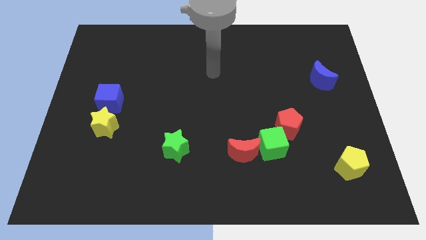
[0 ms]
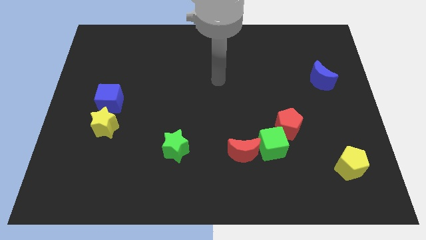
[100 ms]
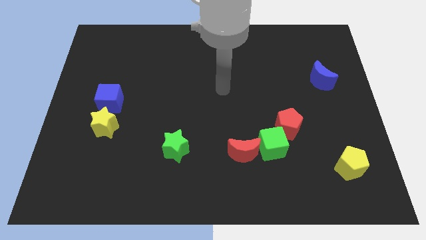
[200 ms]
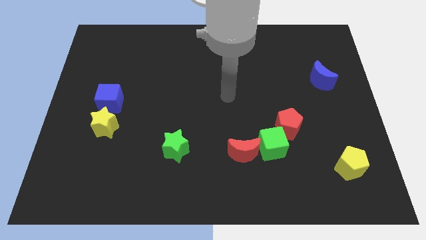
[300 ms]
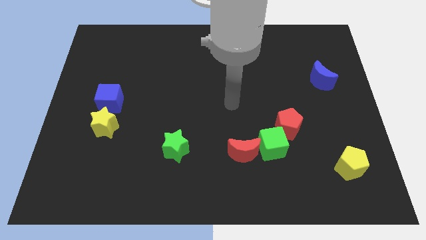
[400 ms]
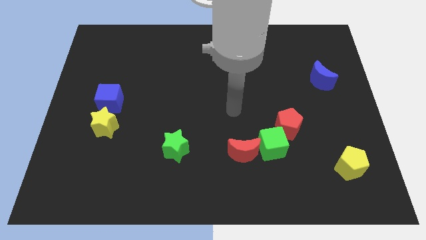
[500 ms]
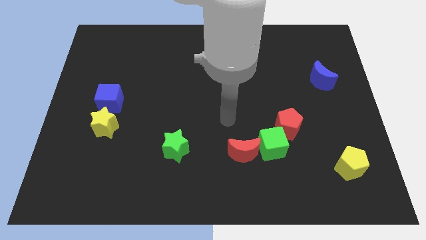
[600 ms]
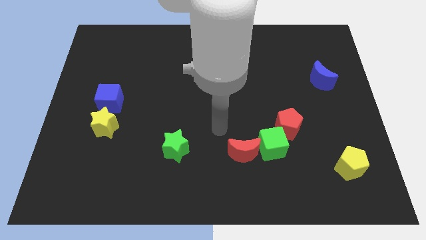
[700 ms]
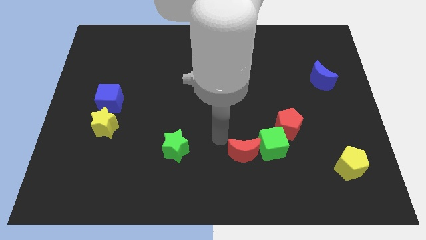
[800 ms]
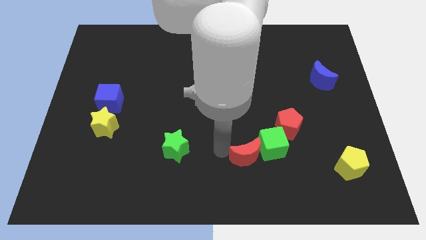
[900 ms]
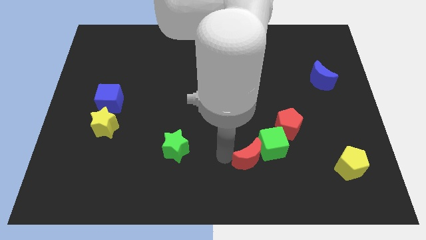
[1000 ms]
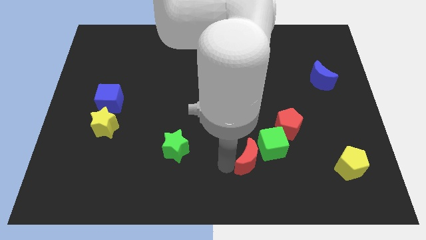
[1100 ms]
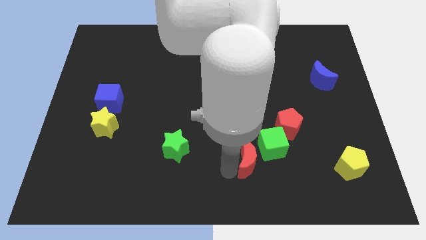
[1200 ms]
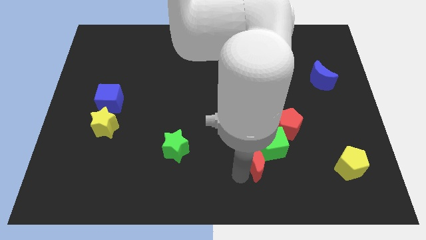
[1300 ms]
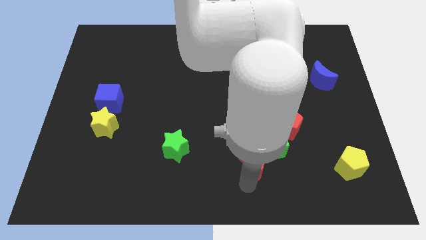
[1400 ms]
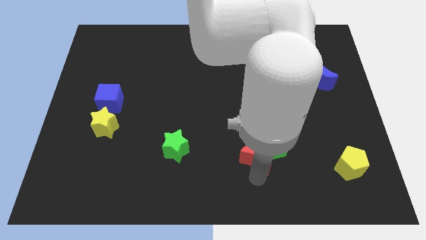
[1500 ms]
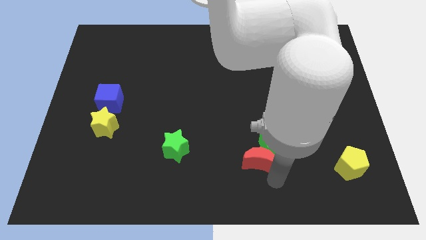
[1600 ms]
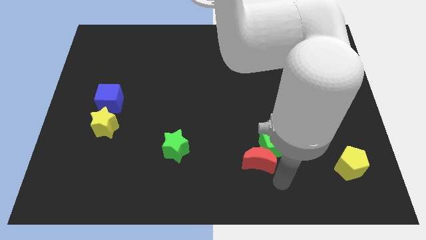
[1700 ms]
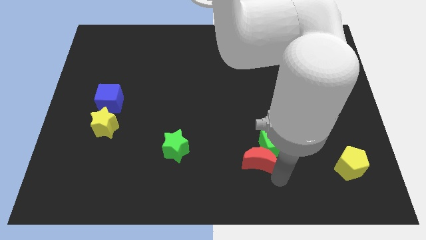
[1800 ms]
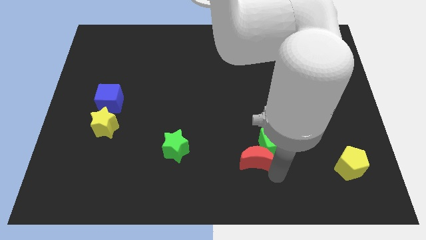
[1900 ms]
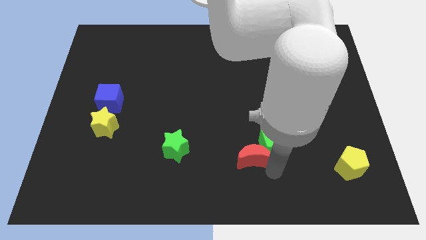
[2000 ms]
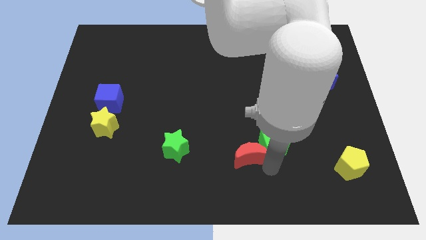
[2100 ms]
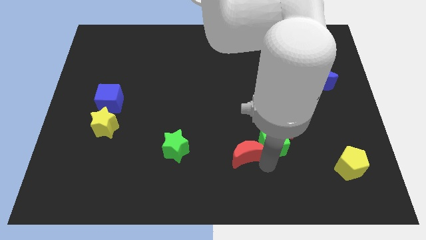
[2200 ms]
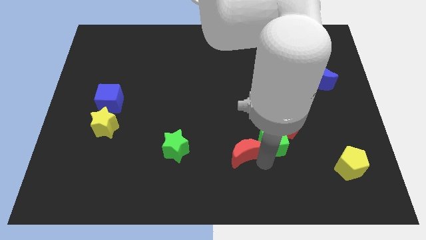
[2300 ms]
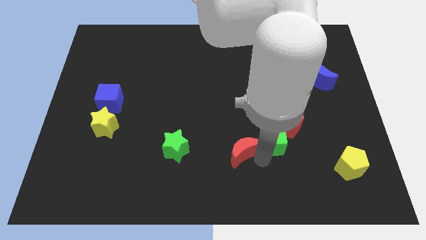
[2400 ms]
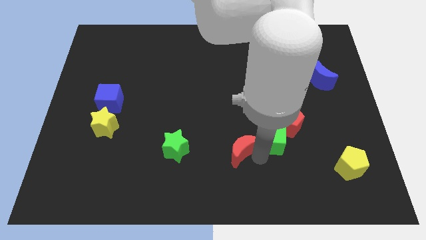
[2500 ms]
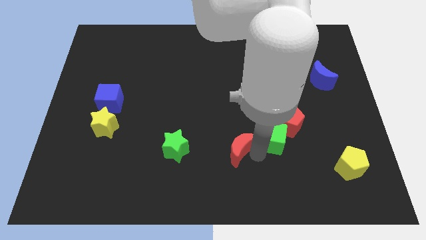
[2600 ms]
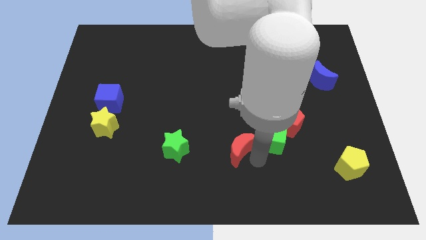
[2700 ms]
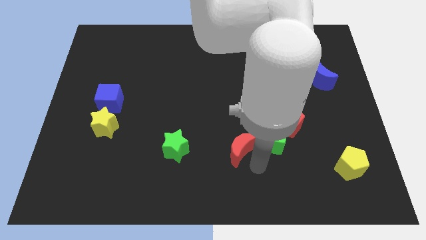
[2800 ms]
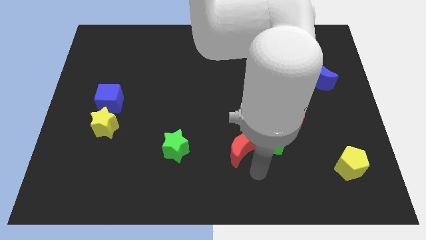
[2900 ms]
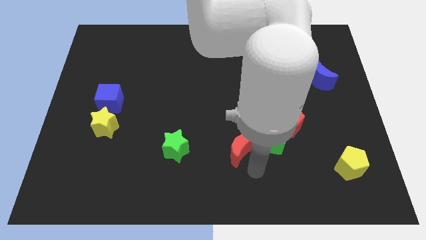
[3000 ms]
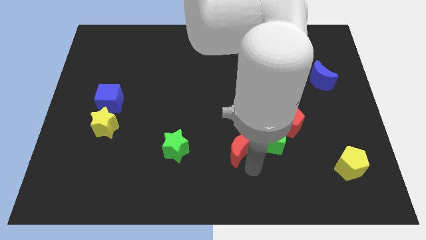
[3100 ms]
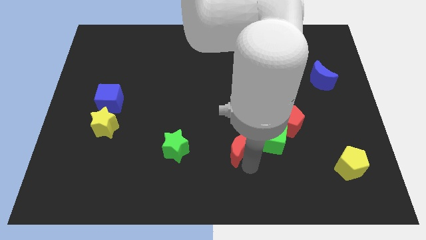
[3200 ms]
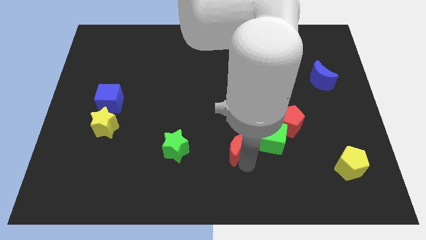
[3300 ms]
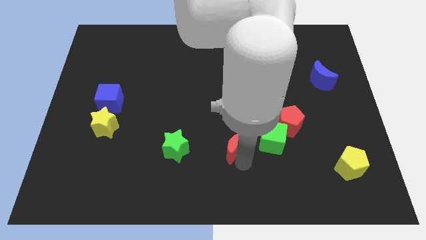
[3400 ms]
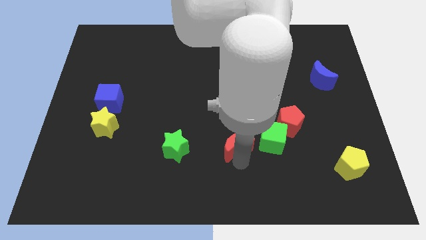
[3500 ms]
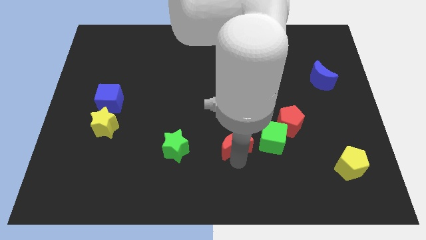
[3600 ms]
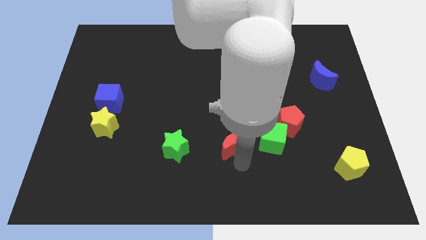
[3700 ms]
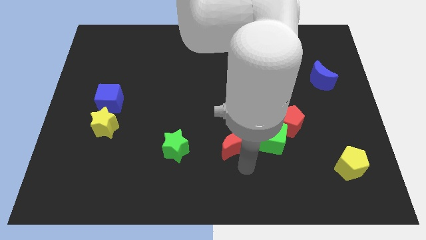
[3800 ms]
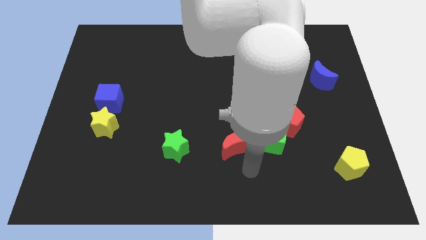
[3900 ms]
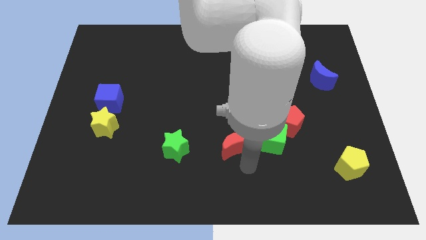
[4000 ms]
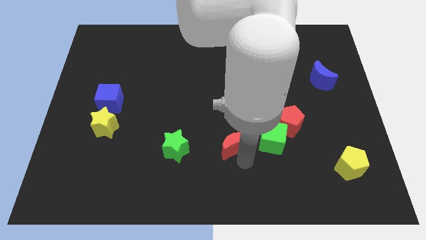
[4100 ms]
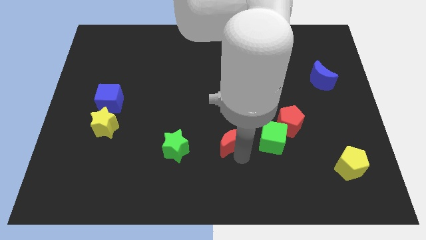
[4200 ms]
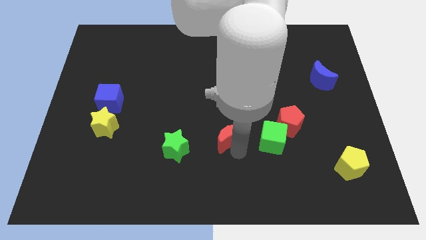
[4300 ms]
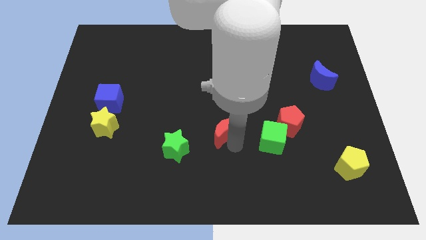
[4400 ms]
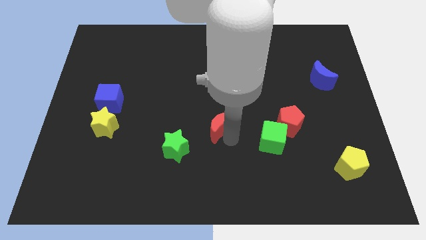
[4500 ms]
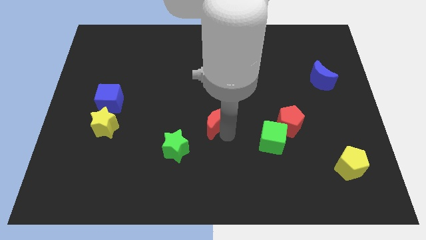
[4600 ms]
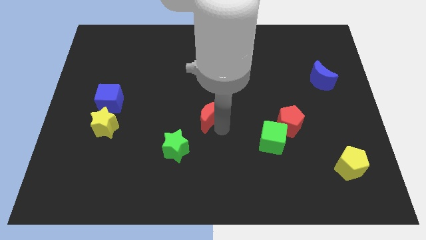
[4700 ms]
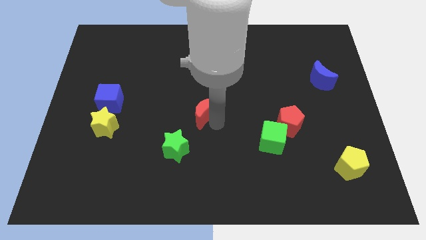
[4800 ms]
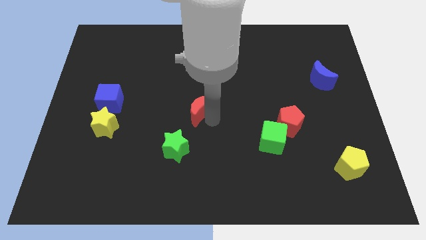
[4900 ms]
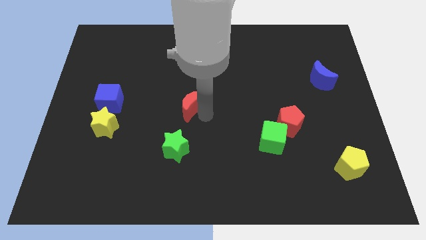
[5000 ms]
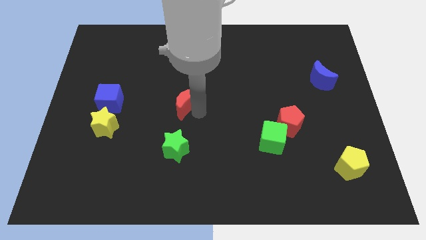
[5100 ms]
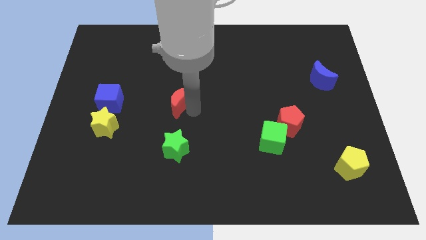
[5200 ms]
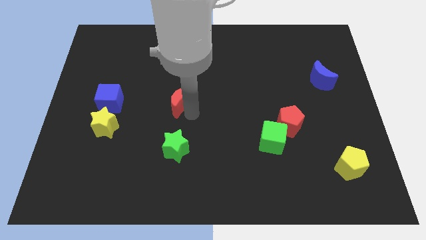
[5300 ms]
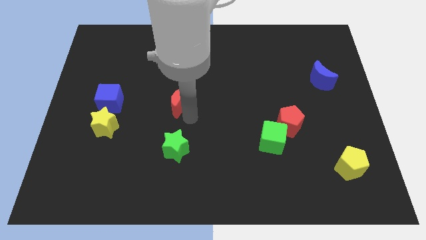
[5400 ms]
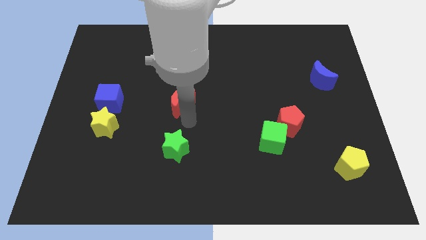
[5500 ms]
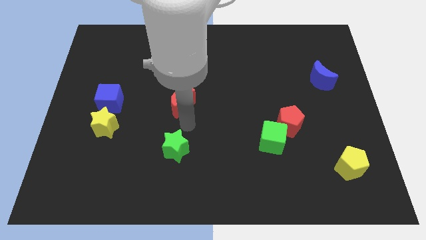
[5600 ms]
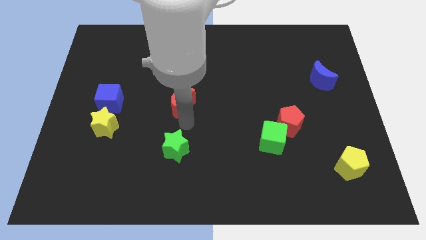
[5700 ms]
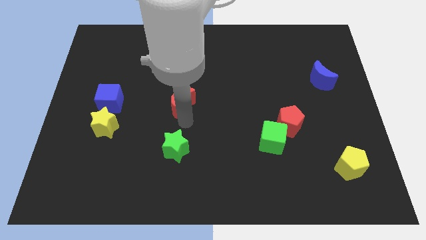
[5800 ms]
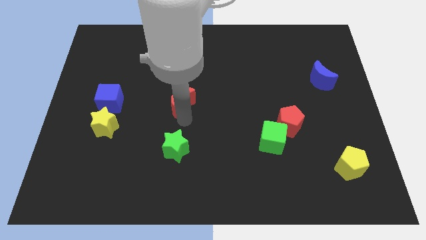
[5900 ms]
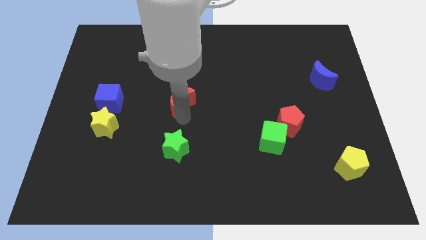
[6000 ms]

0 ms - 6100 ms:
slide the red moon up and to the left diagonally

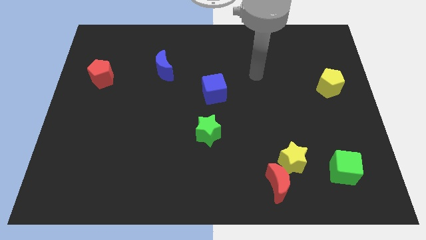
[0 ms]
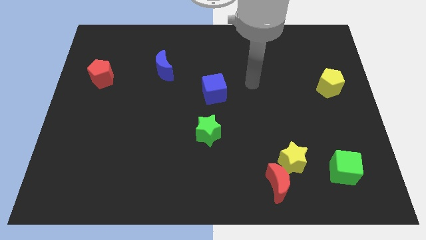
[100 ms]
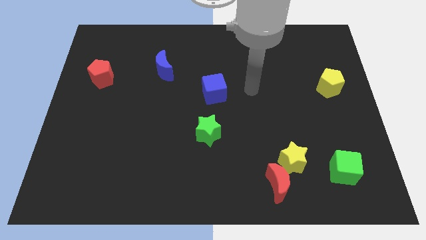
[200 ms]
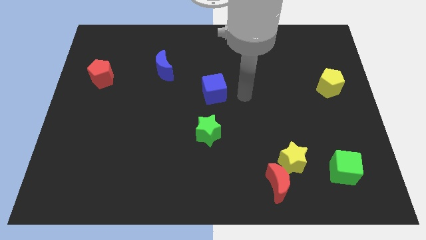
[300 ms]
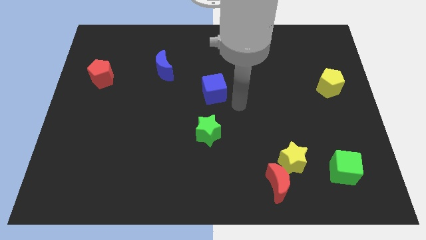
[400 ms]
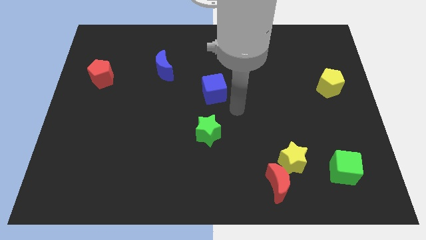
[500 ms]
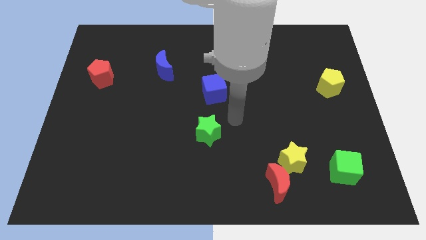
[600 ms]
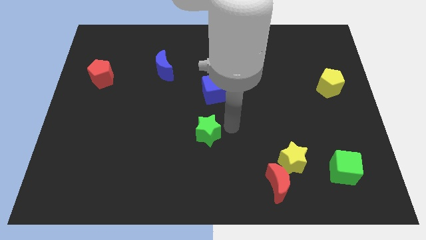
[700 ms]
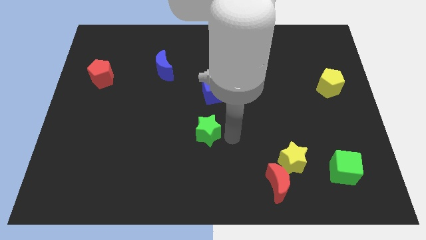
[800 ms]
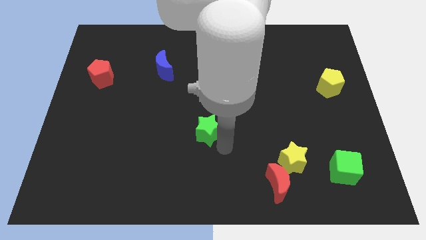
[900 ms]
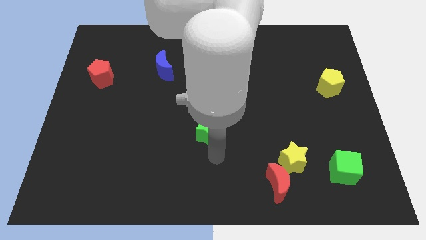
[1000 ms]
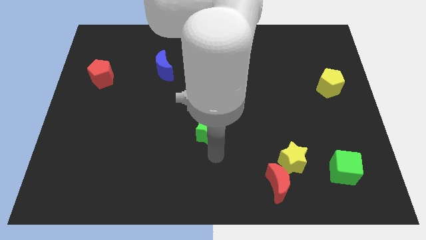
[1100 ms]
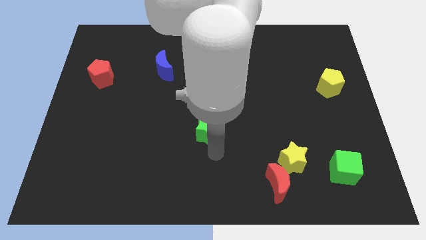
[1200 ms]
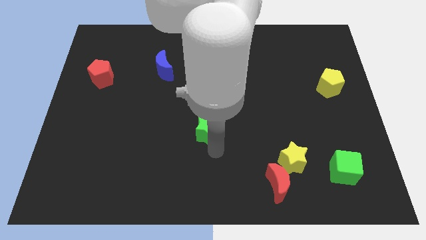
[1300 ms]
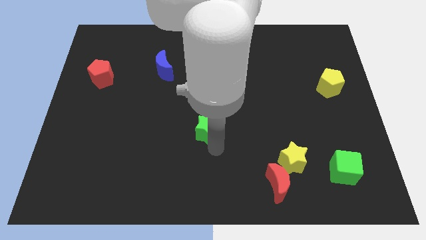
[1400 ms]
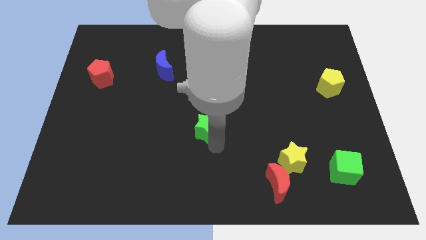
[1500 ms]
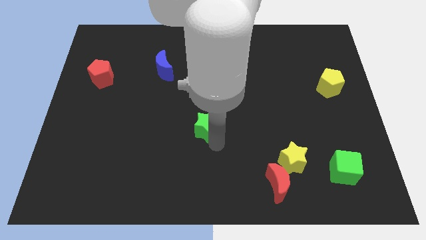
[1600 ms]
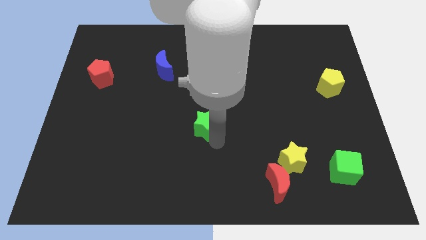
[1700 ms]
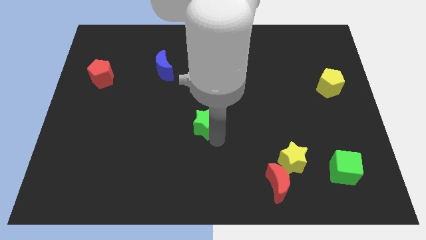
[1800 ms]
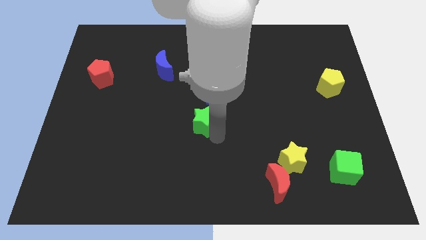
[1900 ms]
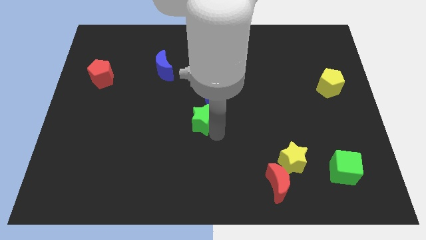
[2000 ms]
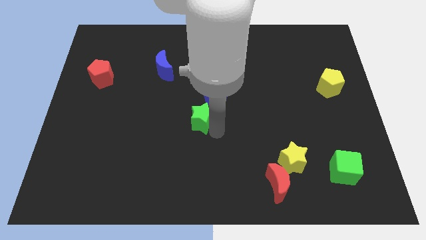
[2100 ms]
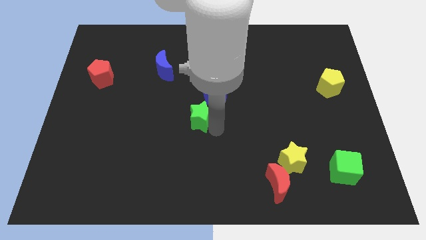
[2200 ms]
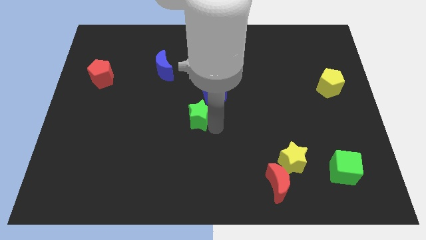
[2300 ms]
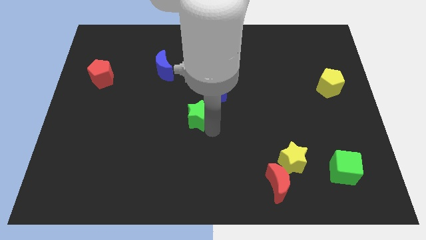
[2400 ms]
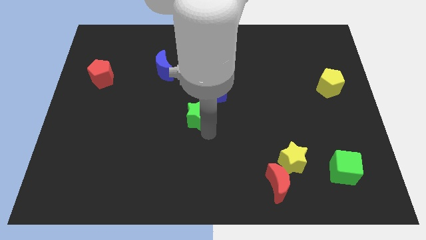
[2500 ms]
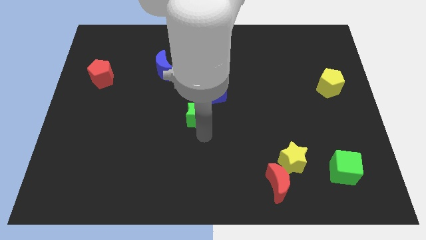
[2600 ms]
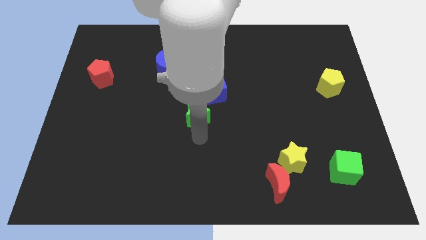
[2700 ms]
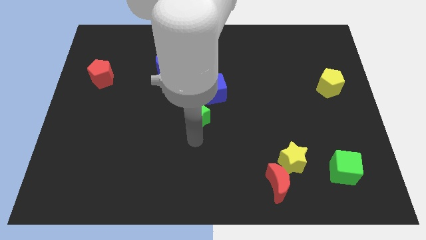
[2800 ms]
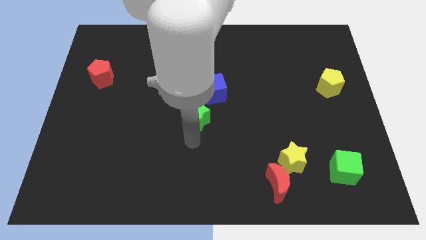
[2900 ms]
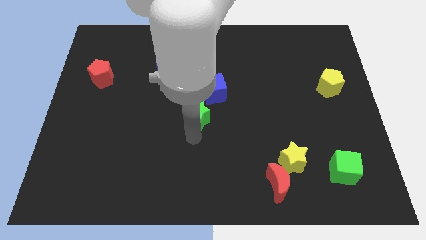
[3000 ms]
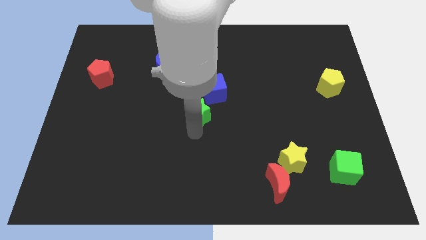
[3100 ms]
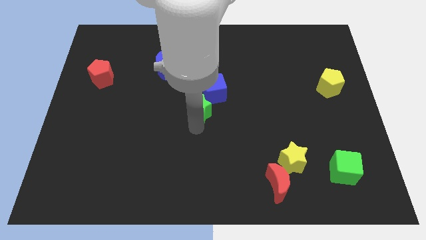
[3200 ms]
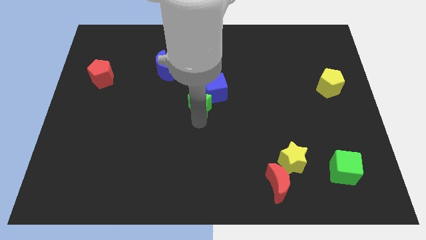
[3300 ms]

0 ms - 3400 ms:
slide the green star a bit upwards
